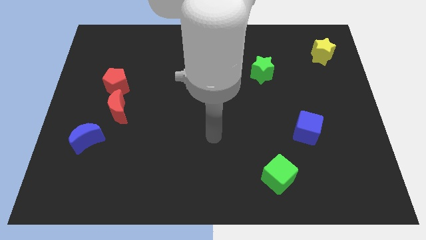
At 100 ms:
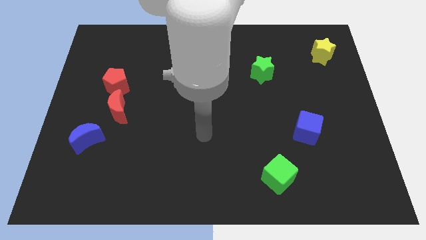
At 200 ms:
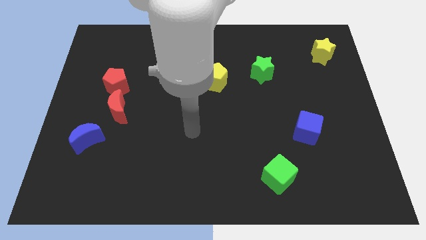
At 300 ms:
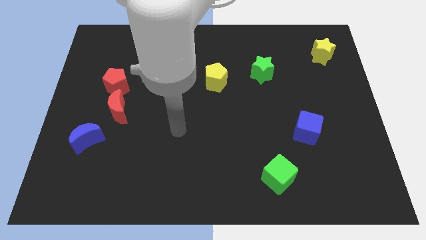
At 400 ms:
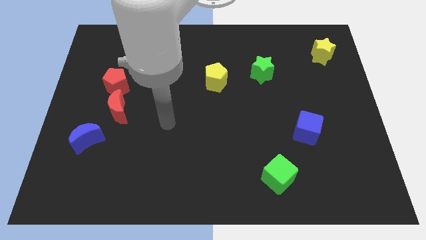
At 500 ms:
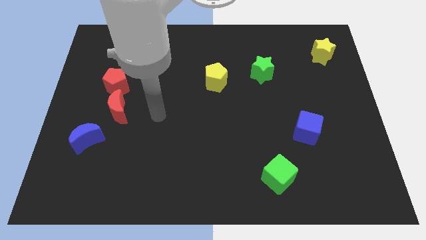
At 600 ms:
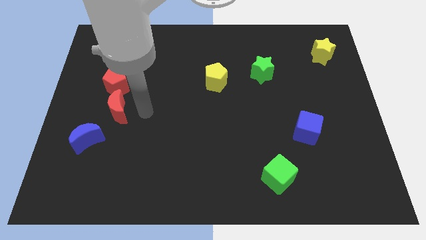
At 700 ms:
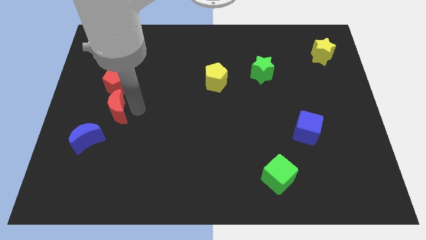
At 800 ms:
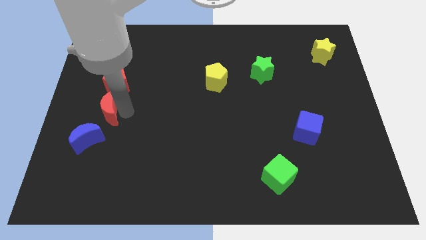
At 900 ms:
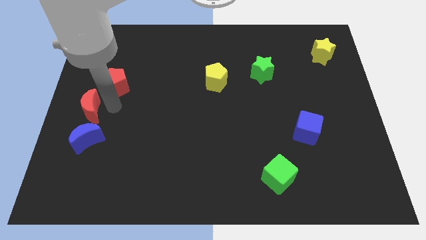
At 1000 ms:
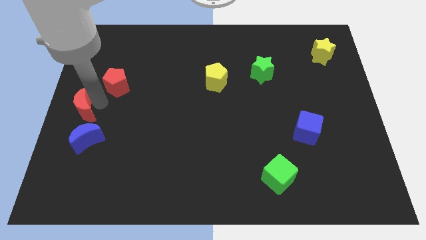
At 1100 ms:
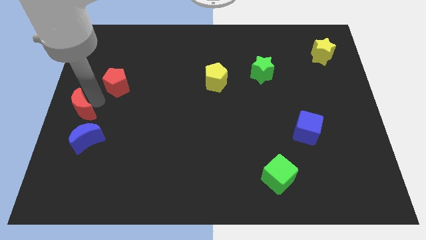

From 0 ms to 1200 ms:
separate the red pentagon from the red moon

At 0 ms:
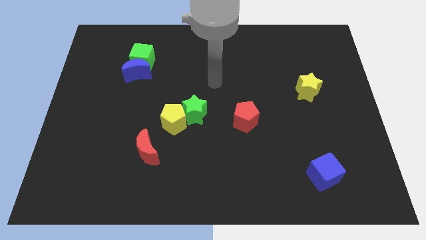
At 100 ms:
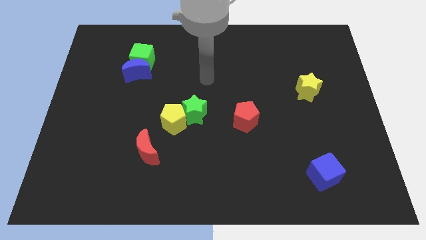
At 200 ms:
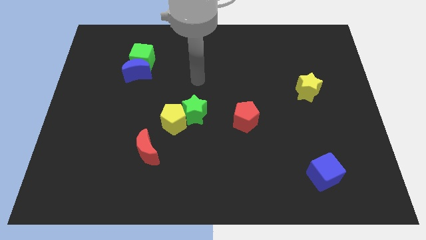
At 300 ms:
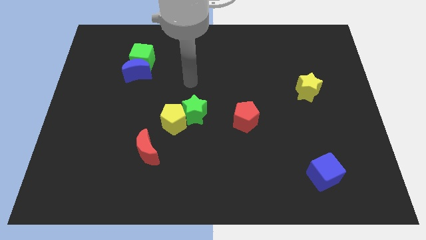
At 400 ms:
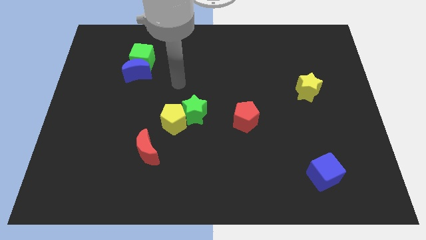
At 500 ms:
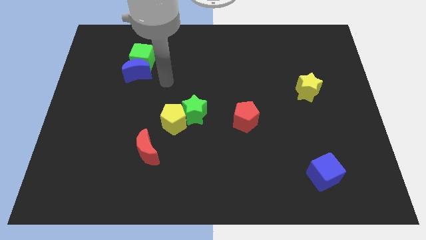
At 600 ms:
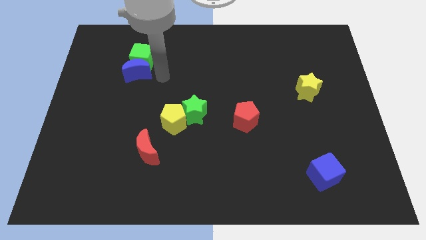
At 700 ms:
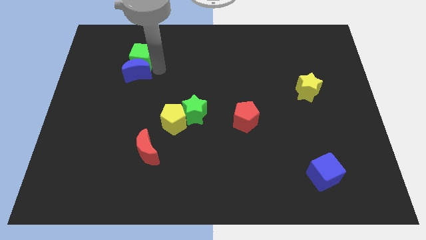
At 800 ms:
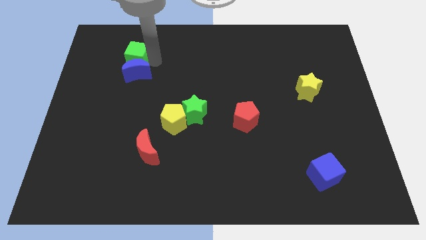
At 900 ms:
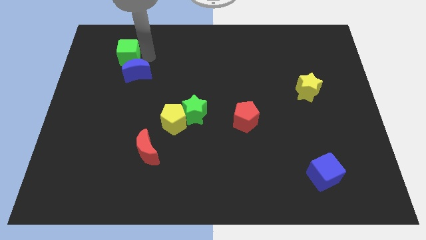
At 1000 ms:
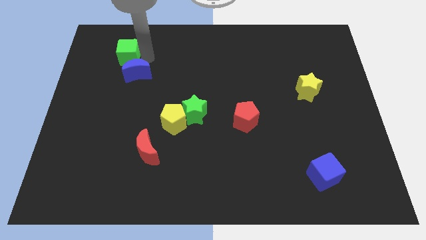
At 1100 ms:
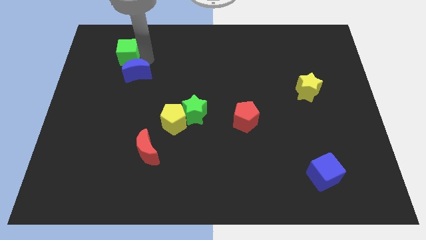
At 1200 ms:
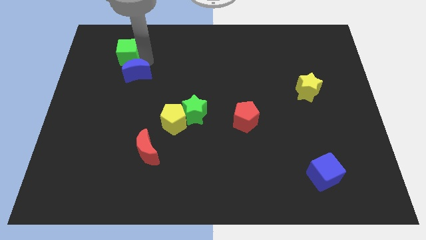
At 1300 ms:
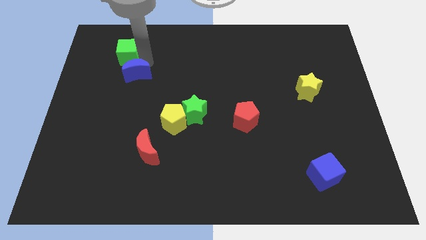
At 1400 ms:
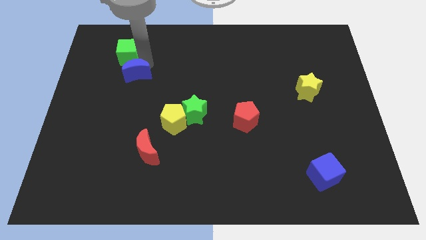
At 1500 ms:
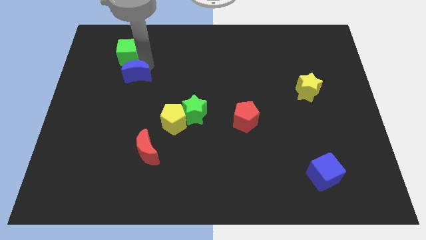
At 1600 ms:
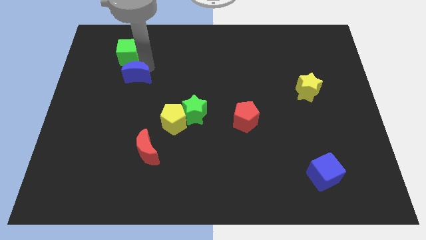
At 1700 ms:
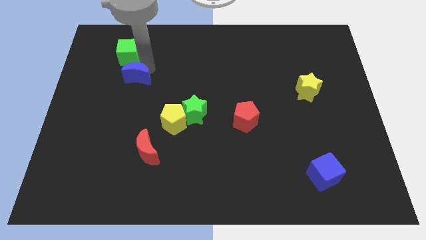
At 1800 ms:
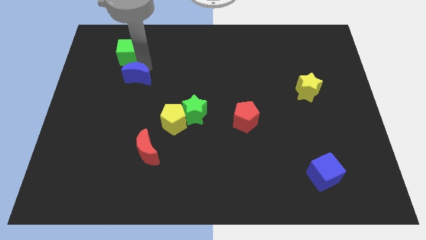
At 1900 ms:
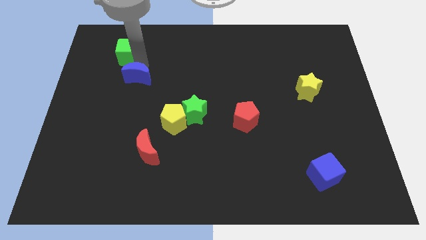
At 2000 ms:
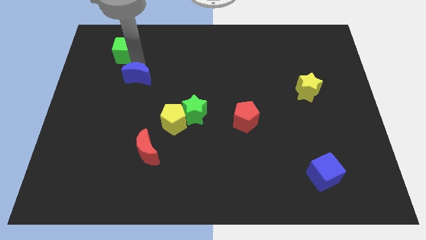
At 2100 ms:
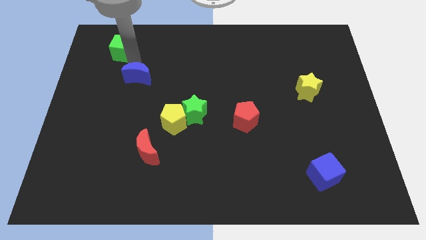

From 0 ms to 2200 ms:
pull the blue moon apart from the green cube

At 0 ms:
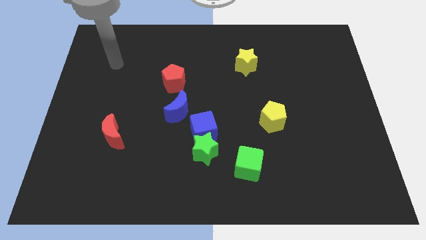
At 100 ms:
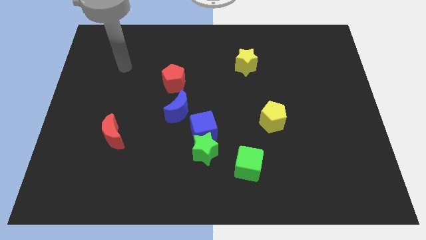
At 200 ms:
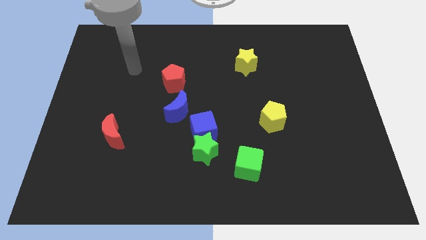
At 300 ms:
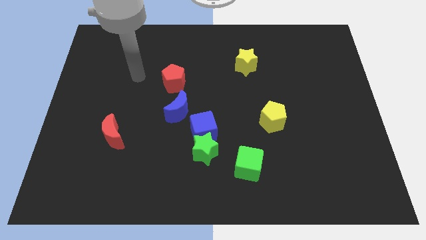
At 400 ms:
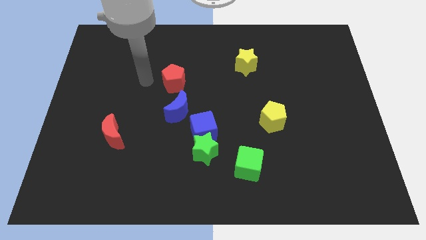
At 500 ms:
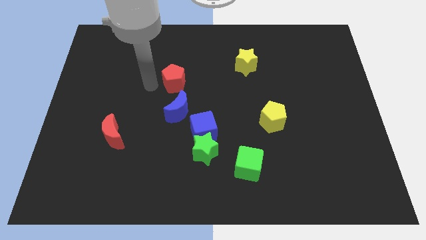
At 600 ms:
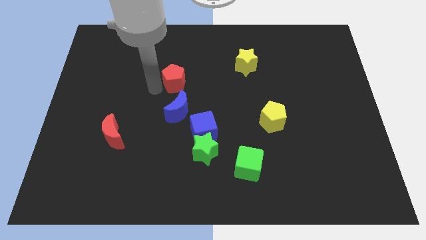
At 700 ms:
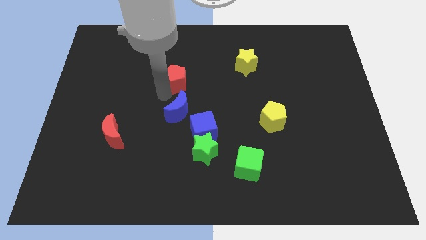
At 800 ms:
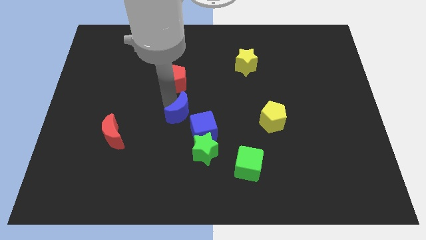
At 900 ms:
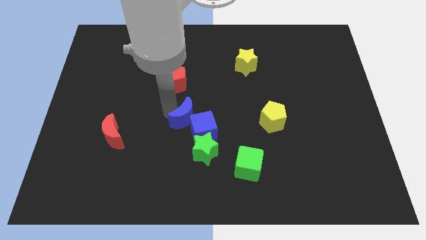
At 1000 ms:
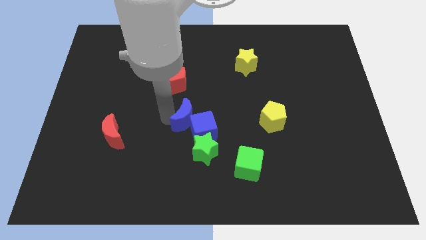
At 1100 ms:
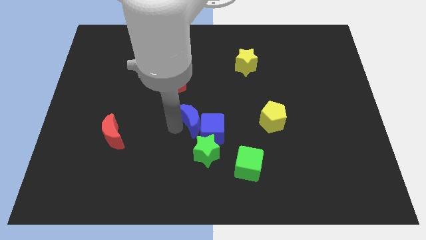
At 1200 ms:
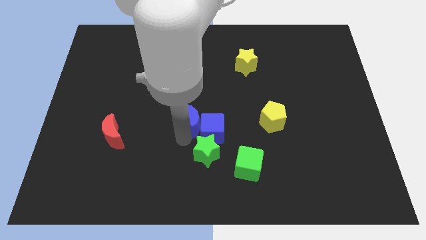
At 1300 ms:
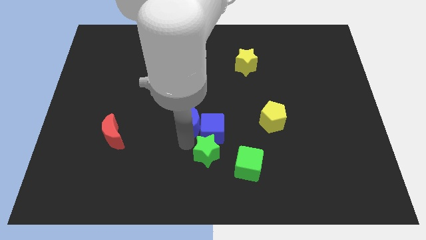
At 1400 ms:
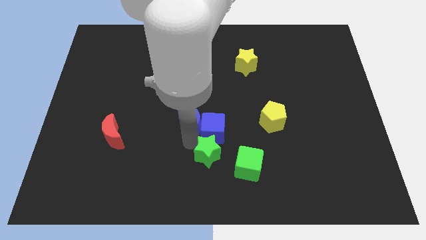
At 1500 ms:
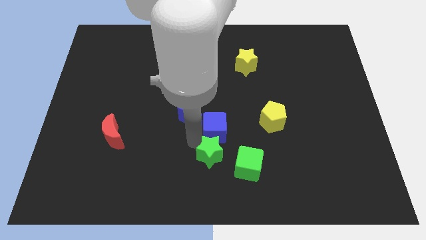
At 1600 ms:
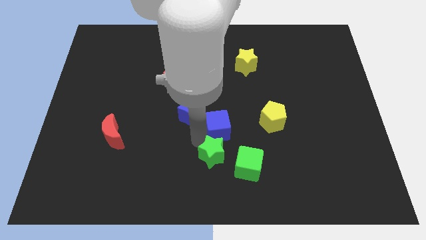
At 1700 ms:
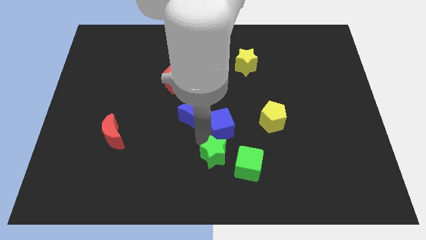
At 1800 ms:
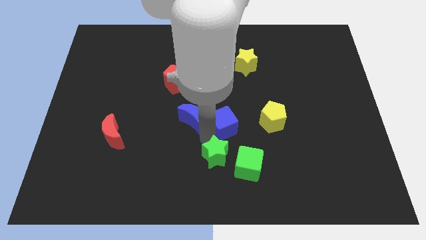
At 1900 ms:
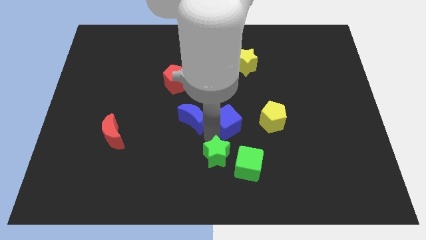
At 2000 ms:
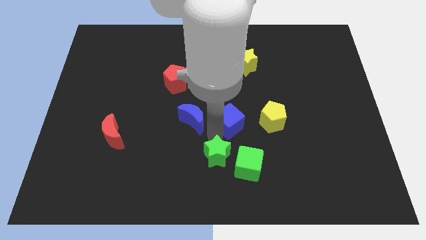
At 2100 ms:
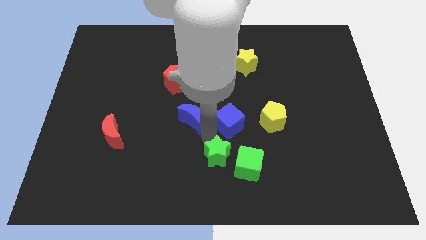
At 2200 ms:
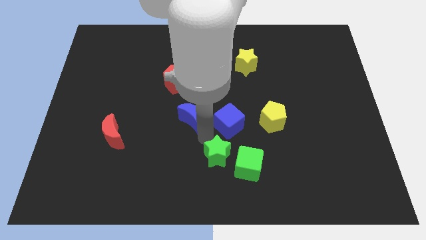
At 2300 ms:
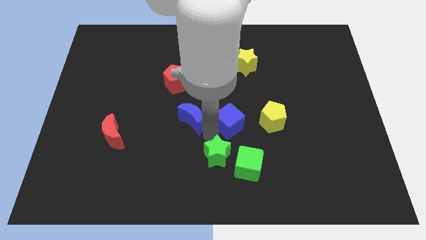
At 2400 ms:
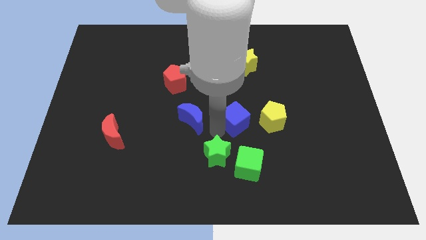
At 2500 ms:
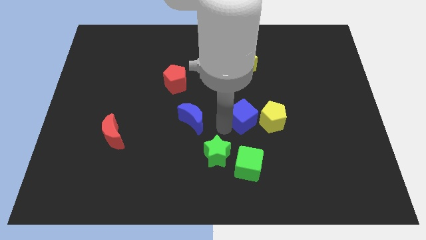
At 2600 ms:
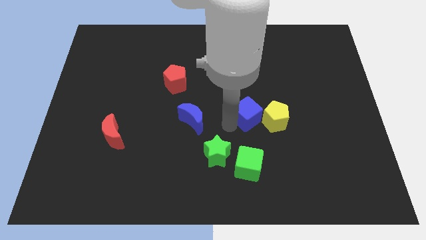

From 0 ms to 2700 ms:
move the blue cube away from the green star and blue moon

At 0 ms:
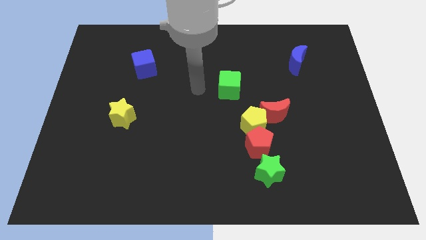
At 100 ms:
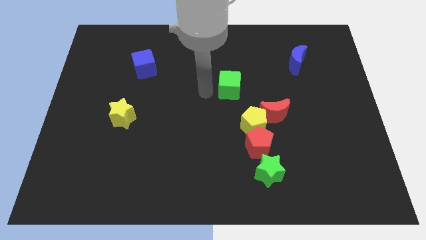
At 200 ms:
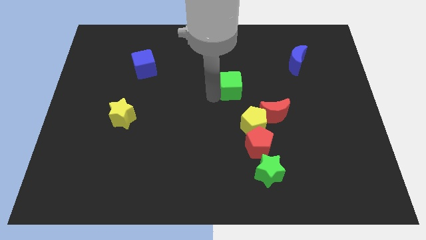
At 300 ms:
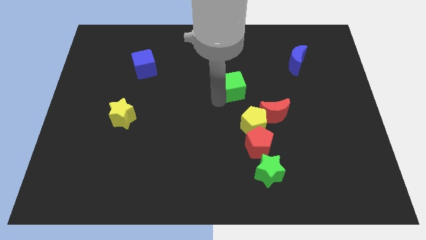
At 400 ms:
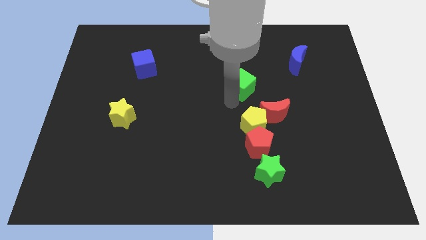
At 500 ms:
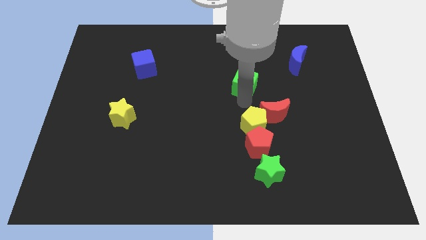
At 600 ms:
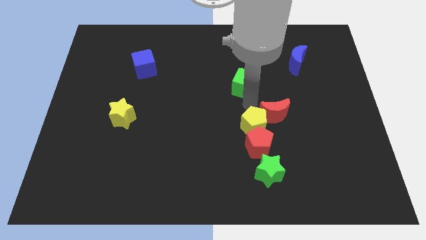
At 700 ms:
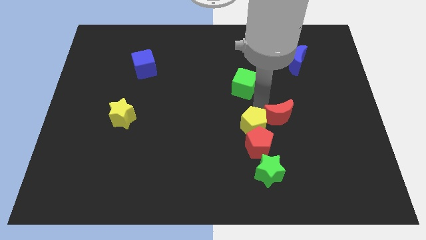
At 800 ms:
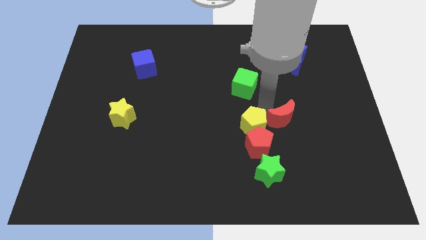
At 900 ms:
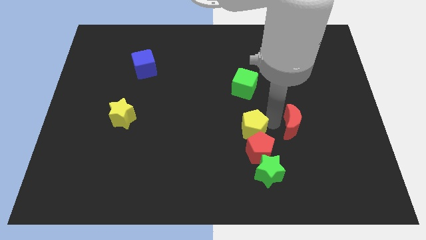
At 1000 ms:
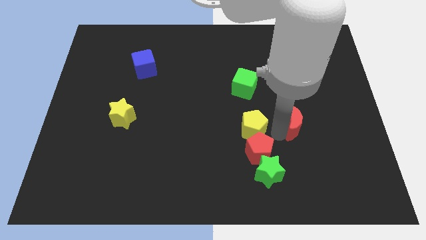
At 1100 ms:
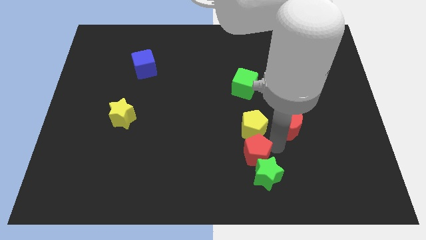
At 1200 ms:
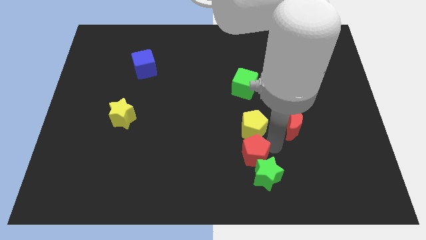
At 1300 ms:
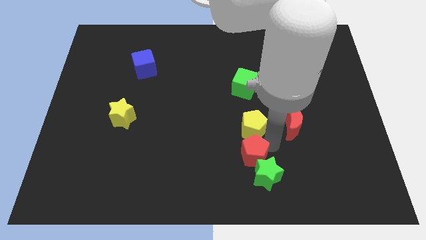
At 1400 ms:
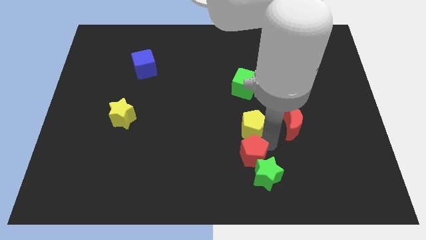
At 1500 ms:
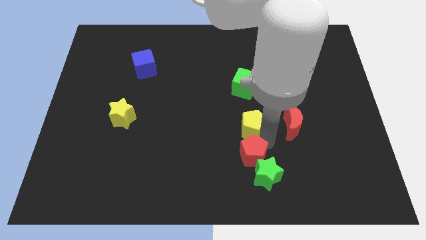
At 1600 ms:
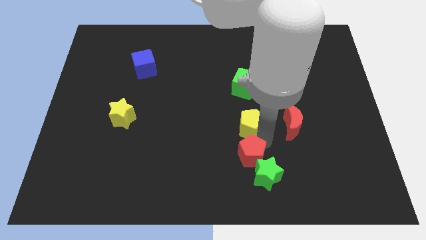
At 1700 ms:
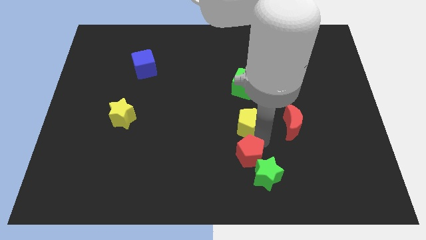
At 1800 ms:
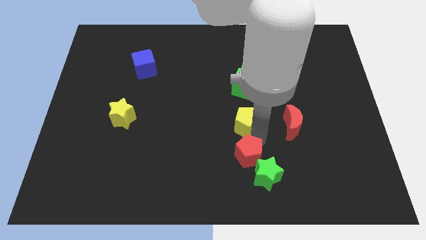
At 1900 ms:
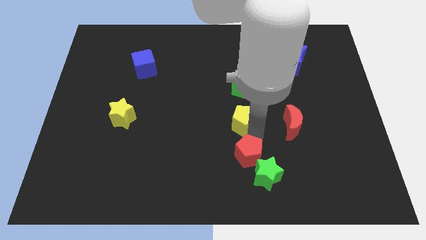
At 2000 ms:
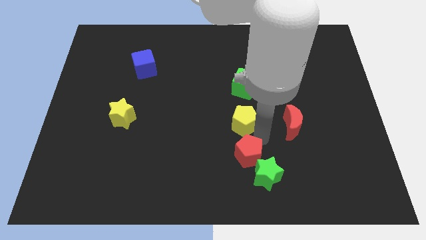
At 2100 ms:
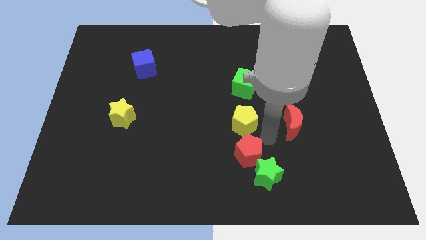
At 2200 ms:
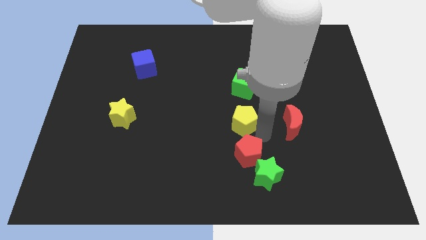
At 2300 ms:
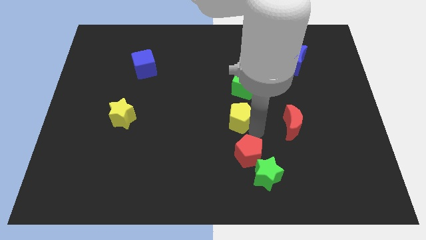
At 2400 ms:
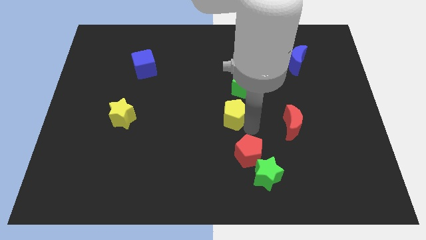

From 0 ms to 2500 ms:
separate the yellow pentagon from the red pentagon and red moon

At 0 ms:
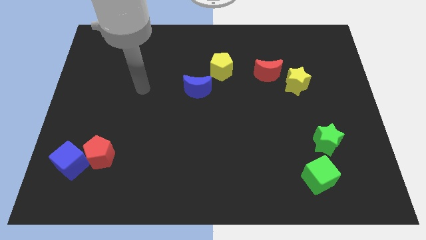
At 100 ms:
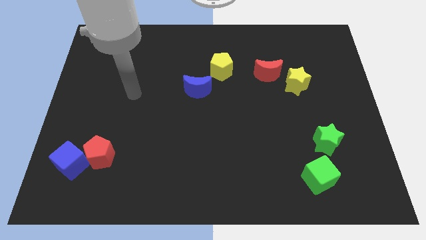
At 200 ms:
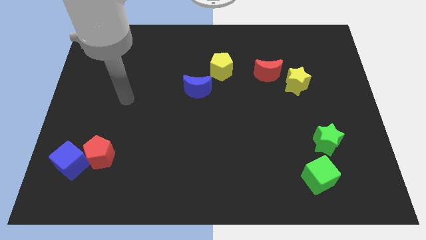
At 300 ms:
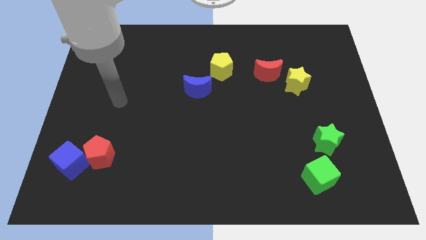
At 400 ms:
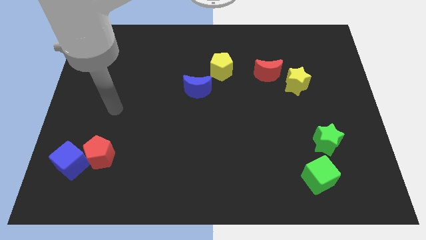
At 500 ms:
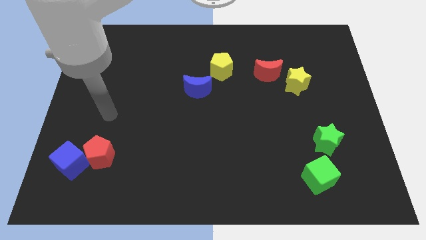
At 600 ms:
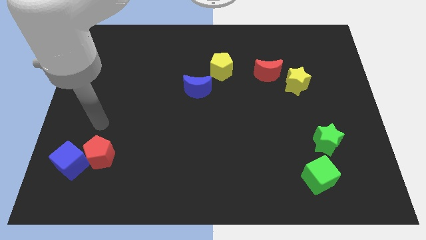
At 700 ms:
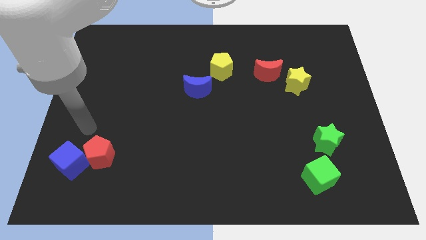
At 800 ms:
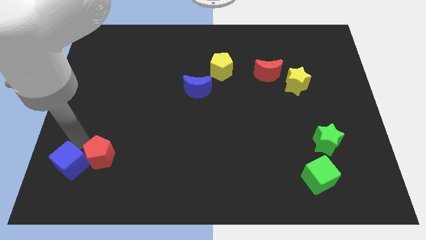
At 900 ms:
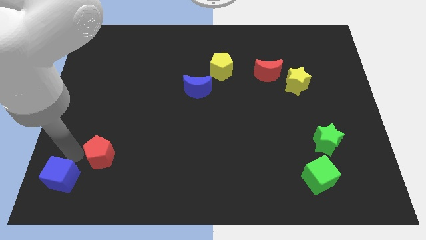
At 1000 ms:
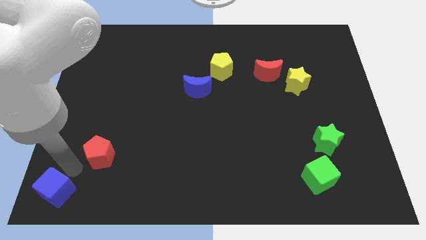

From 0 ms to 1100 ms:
separate the red pentagon from the blue cube
